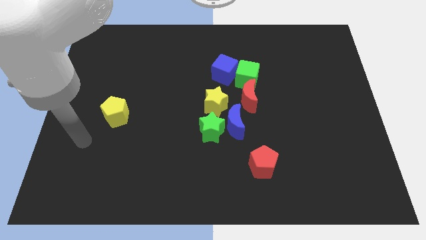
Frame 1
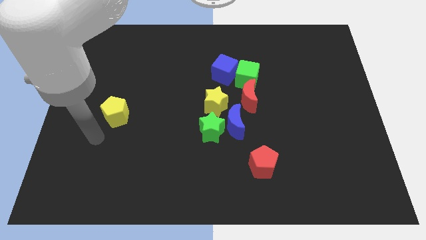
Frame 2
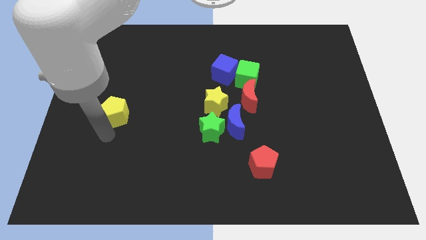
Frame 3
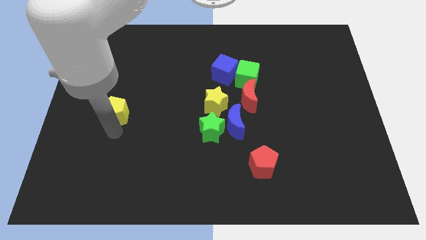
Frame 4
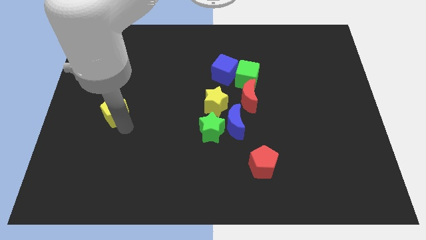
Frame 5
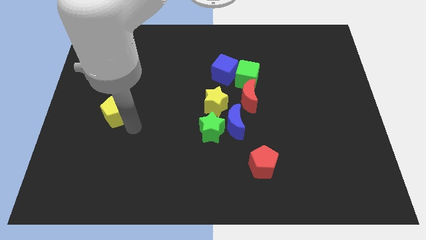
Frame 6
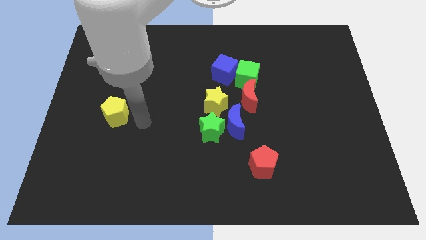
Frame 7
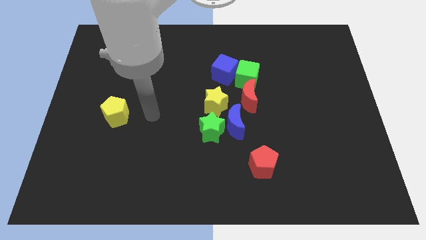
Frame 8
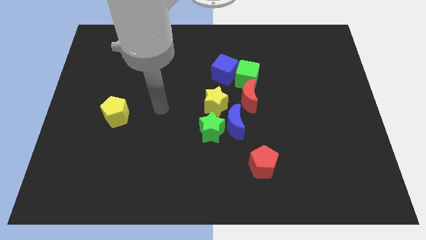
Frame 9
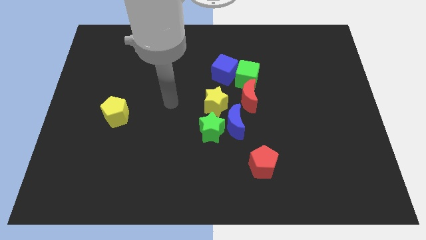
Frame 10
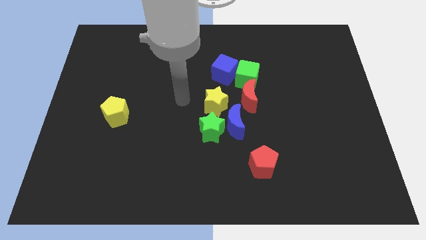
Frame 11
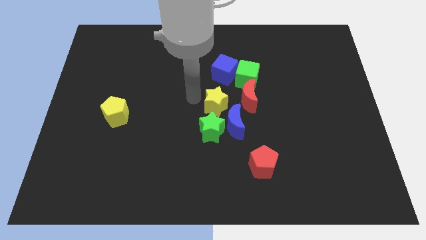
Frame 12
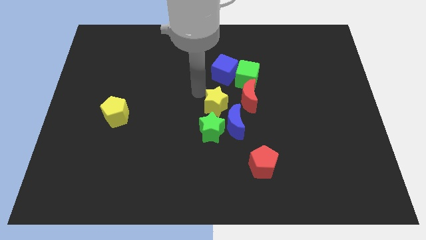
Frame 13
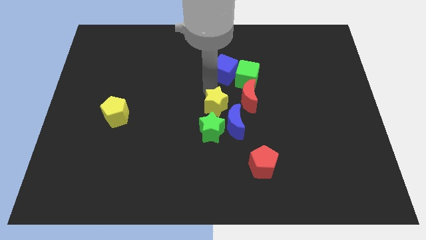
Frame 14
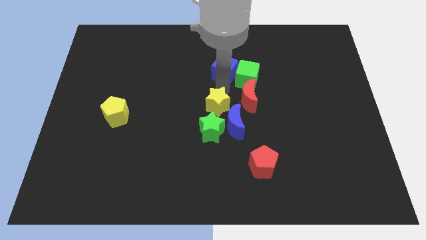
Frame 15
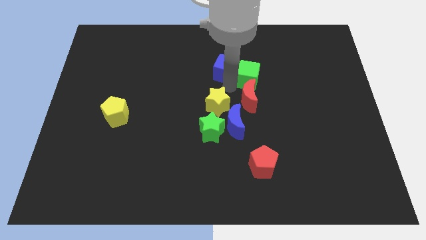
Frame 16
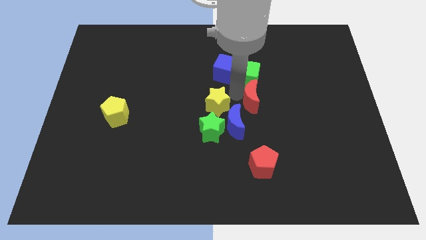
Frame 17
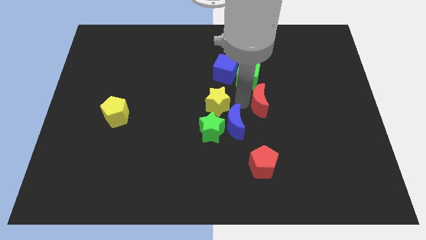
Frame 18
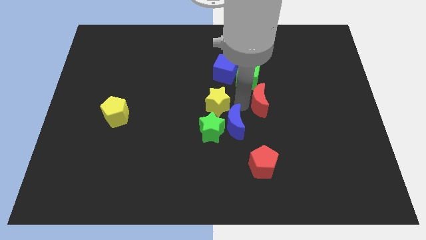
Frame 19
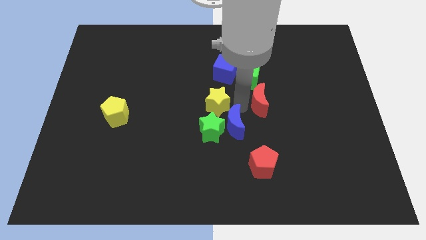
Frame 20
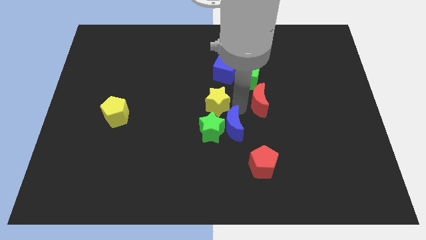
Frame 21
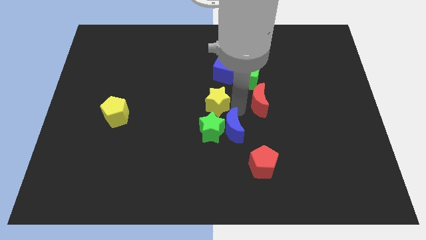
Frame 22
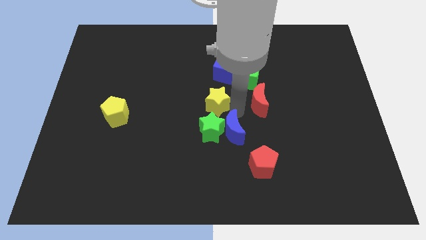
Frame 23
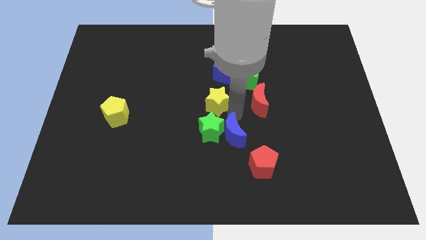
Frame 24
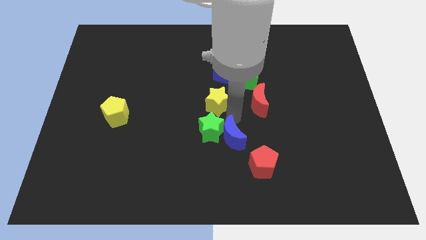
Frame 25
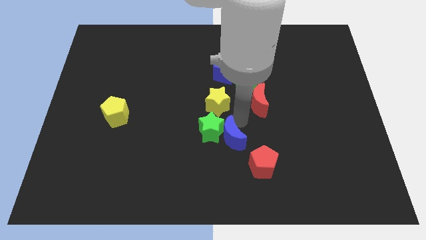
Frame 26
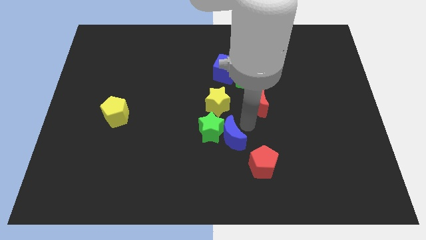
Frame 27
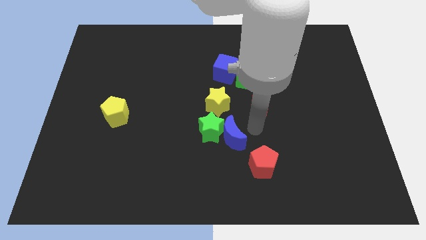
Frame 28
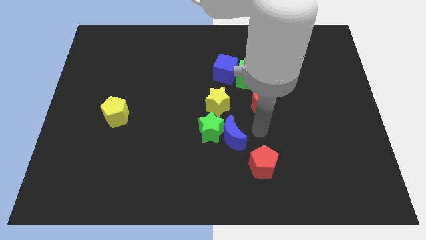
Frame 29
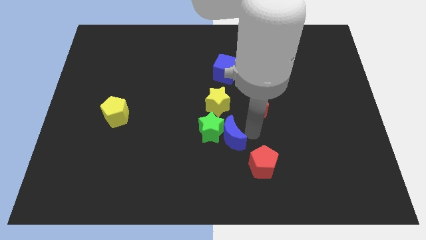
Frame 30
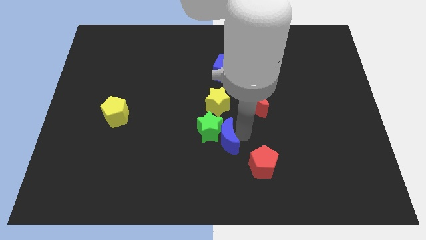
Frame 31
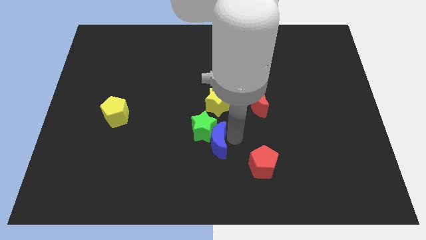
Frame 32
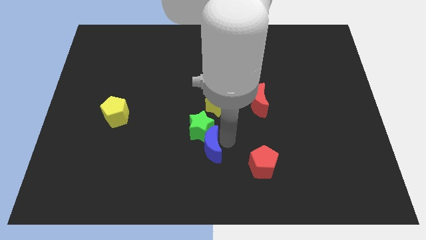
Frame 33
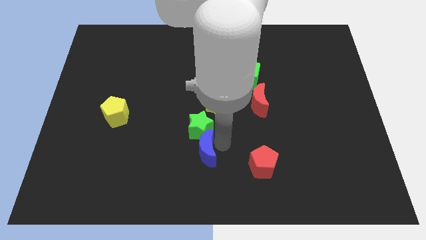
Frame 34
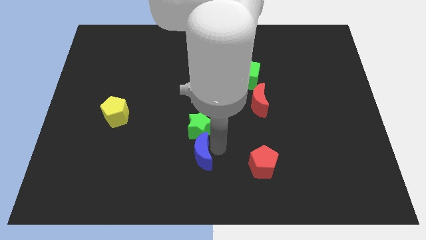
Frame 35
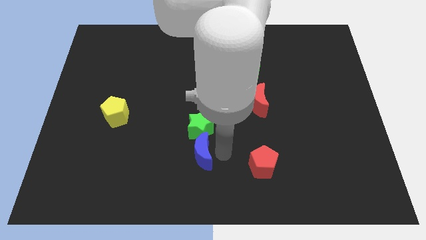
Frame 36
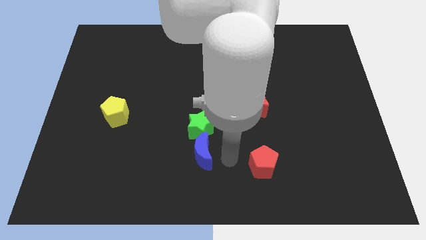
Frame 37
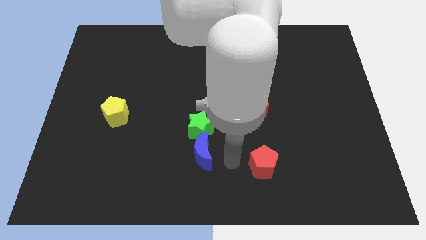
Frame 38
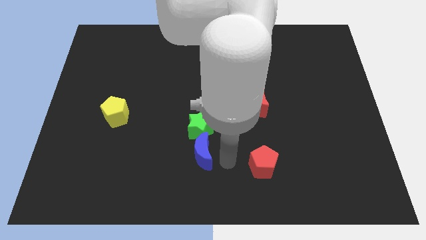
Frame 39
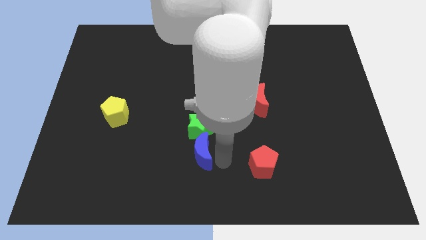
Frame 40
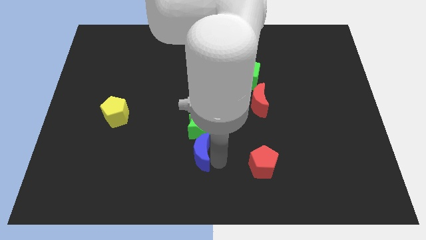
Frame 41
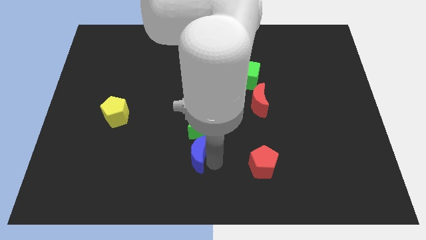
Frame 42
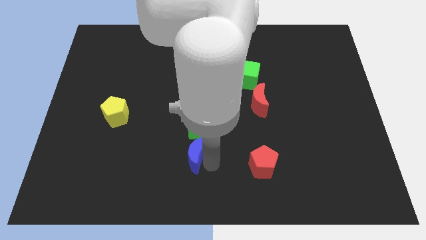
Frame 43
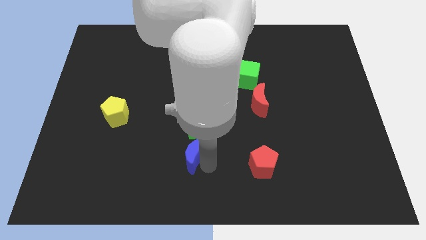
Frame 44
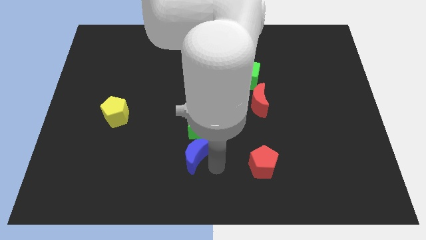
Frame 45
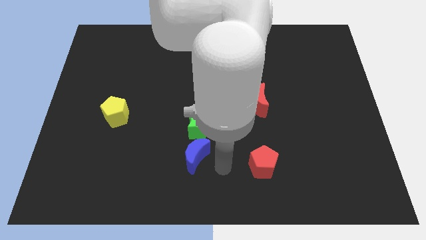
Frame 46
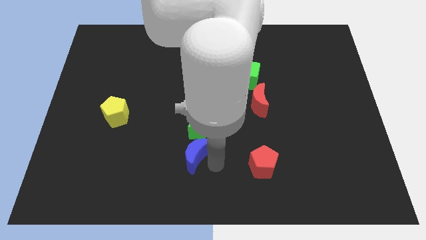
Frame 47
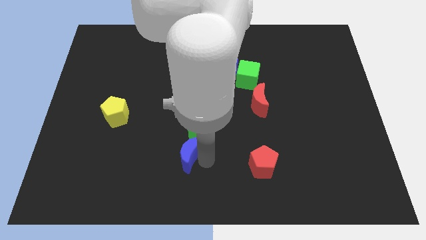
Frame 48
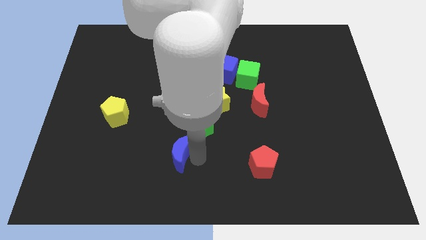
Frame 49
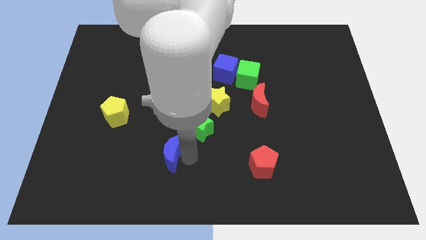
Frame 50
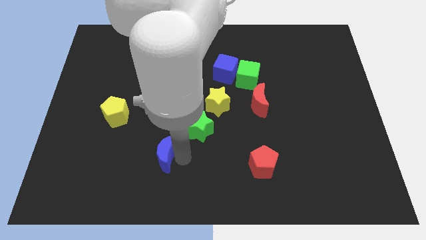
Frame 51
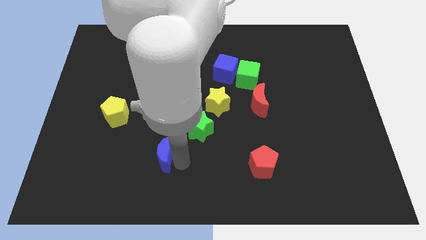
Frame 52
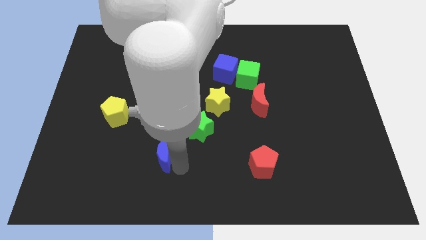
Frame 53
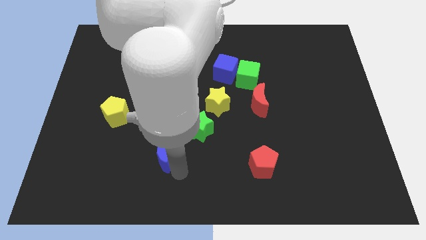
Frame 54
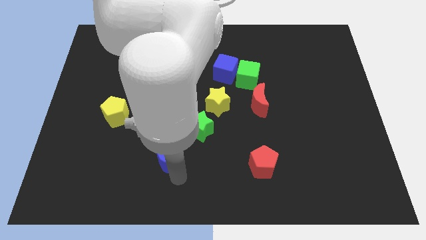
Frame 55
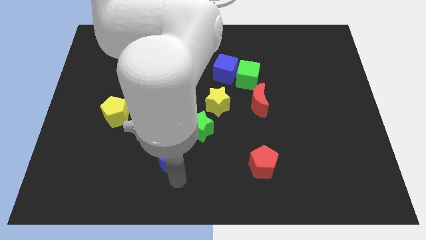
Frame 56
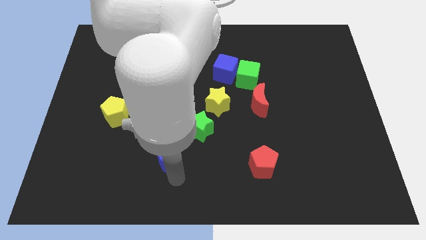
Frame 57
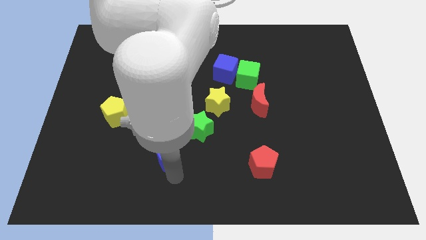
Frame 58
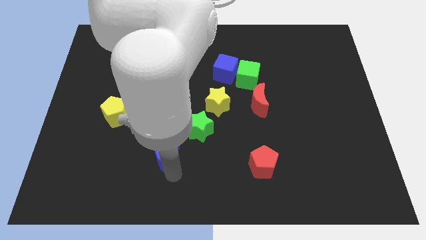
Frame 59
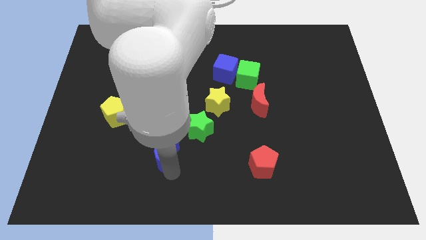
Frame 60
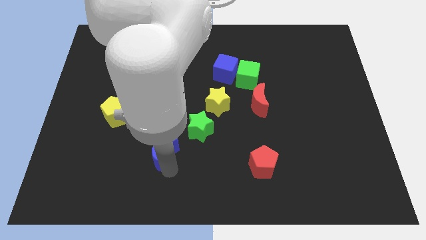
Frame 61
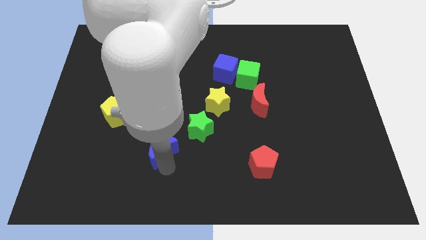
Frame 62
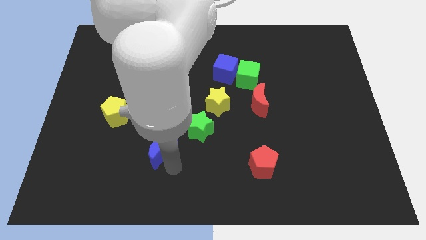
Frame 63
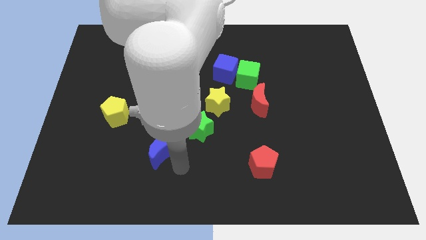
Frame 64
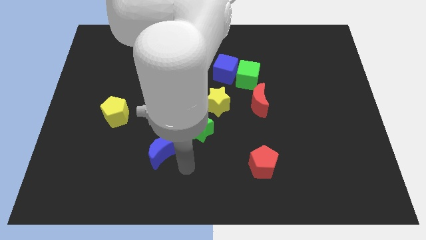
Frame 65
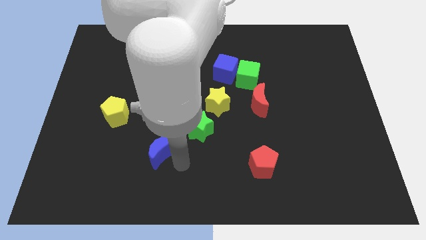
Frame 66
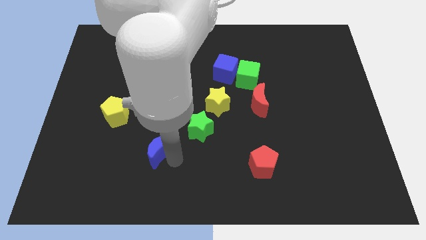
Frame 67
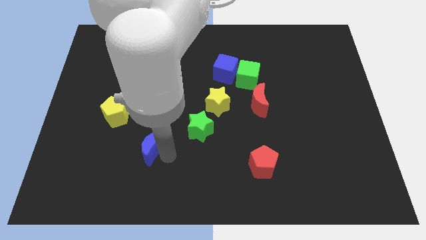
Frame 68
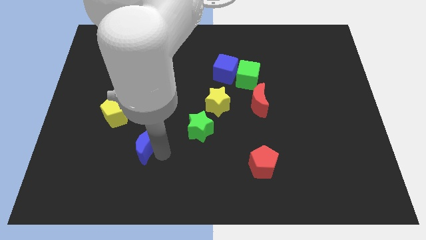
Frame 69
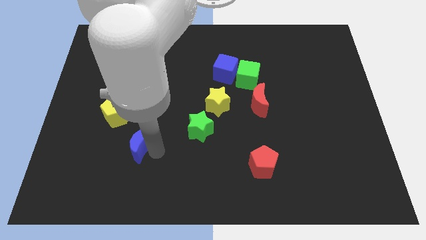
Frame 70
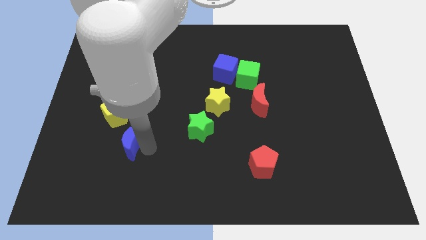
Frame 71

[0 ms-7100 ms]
slide the blue moon to the left

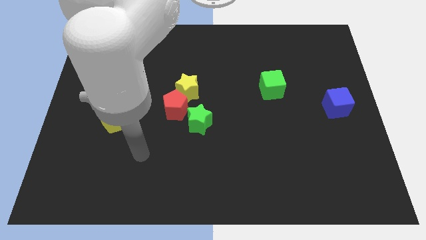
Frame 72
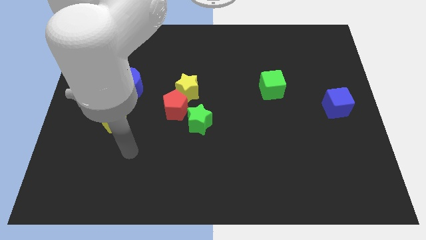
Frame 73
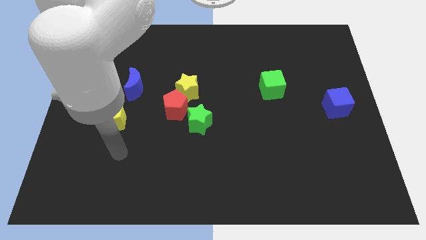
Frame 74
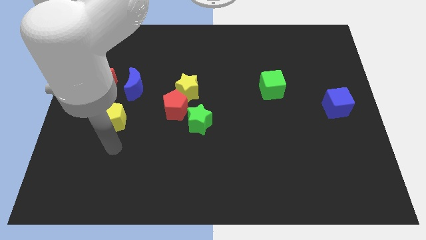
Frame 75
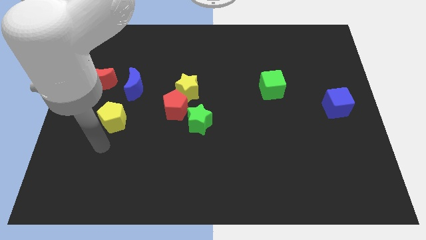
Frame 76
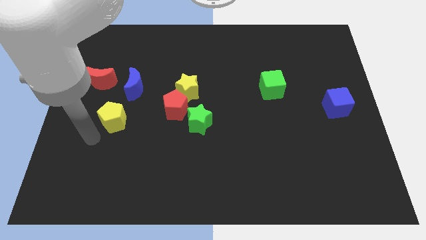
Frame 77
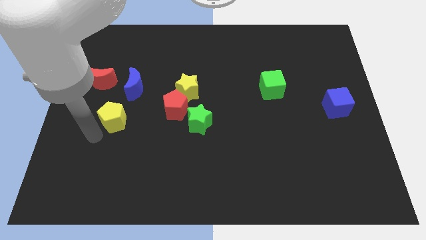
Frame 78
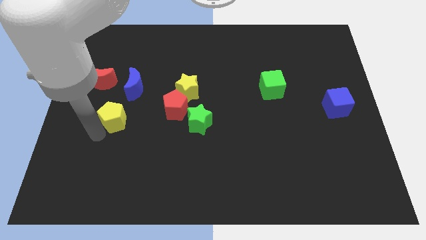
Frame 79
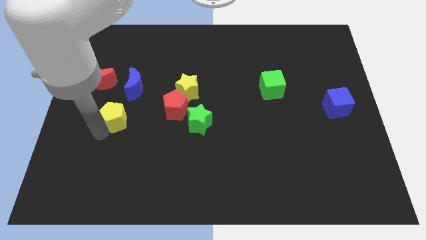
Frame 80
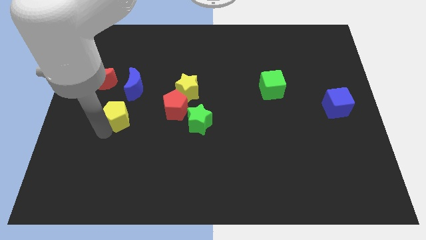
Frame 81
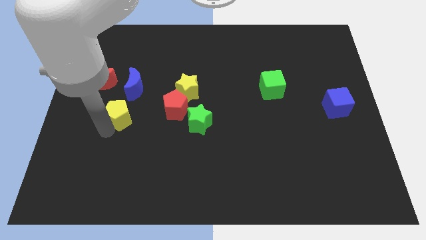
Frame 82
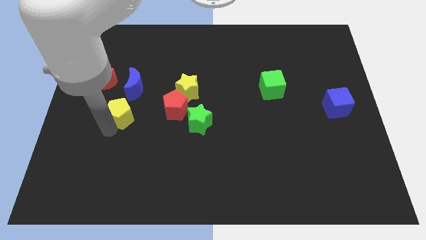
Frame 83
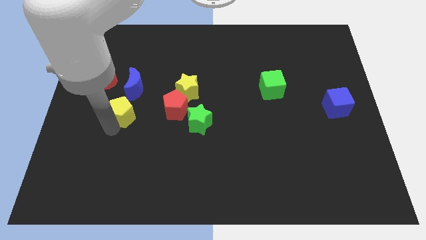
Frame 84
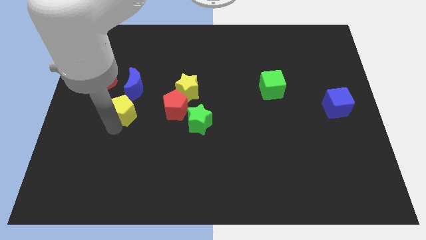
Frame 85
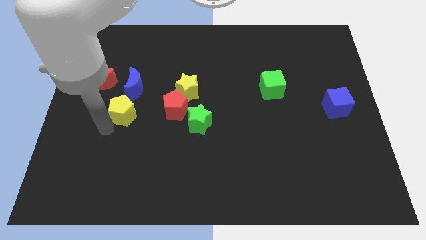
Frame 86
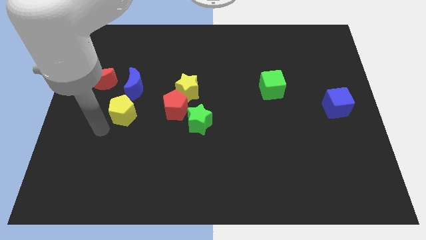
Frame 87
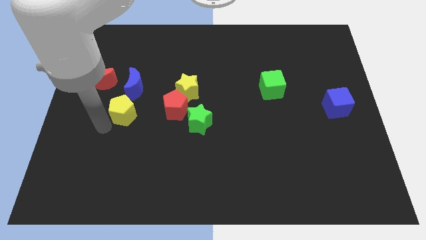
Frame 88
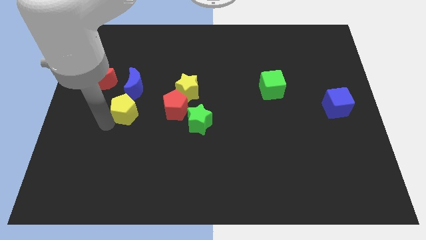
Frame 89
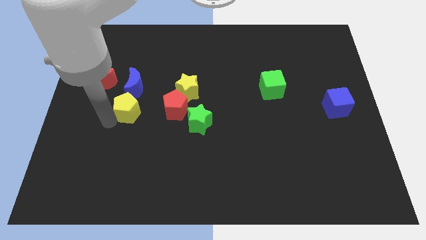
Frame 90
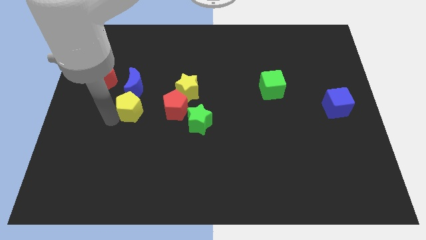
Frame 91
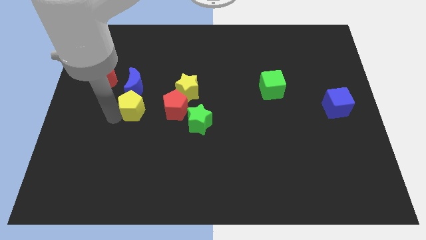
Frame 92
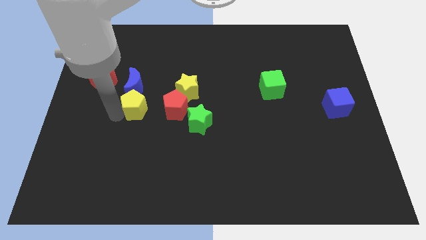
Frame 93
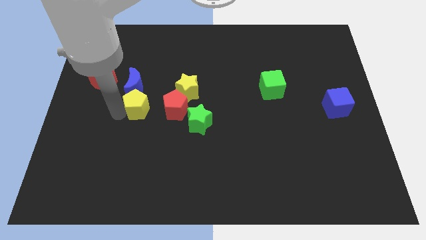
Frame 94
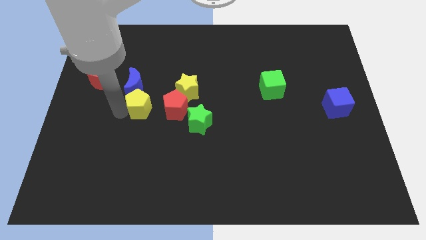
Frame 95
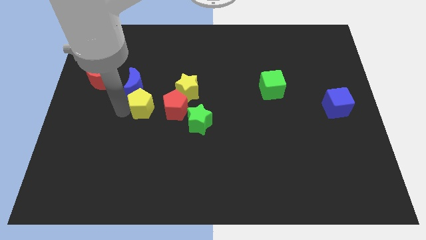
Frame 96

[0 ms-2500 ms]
push the yellow pentagon a little bit up and to the right diagonally
